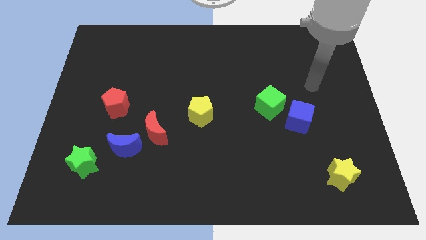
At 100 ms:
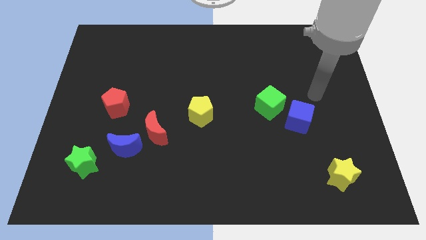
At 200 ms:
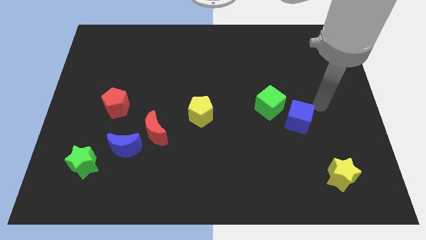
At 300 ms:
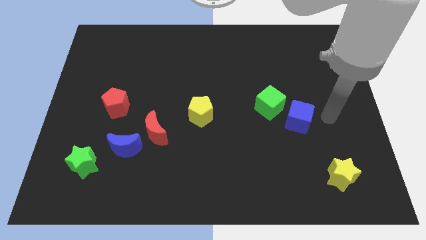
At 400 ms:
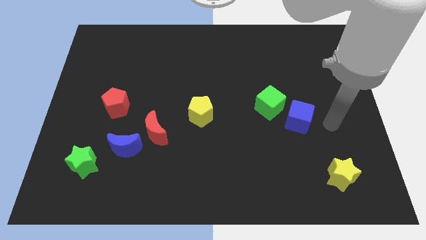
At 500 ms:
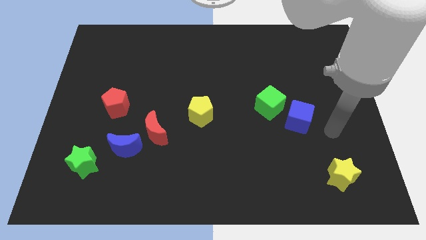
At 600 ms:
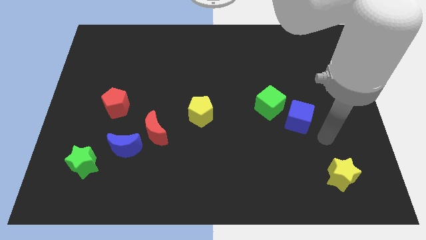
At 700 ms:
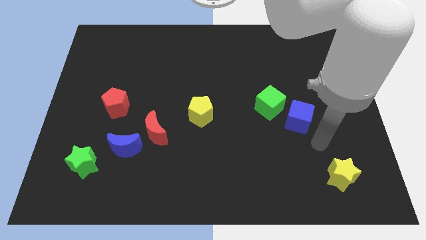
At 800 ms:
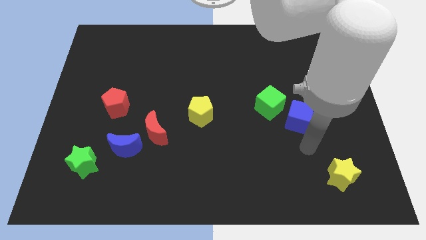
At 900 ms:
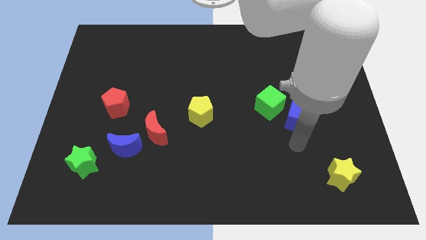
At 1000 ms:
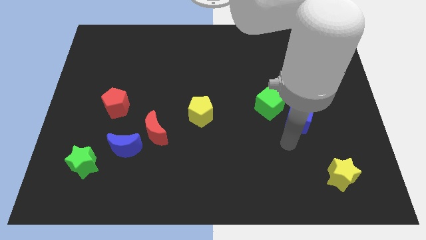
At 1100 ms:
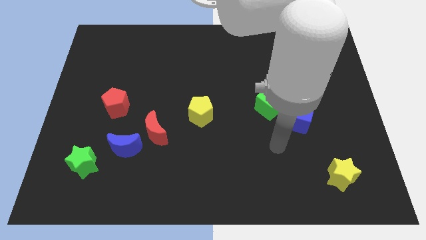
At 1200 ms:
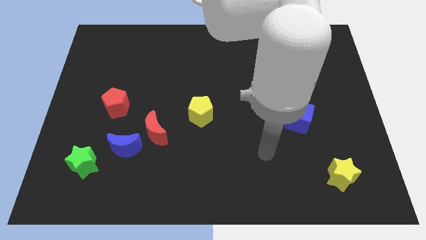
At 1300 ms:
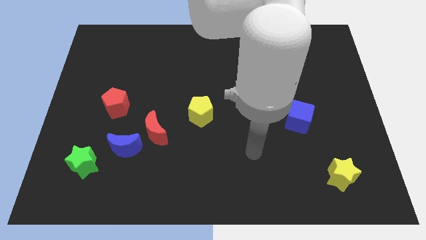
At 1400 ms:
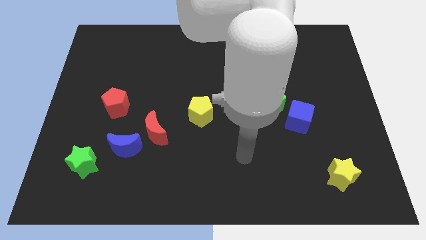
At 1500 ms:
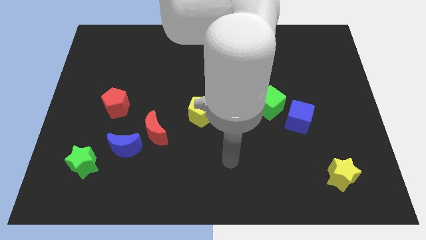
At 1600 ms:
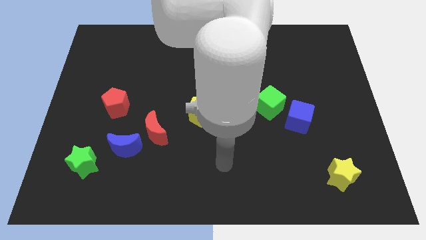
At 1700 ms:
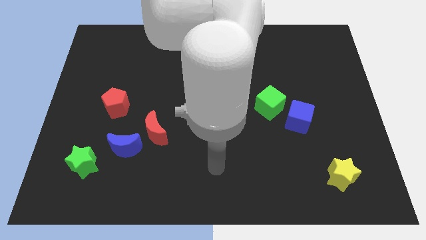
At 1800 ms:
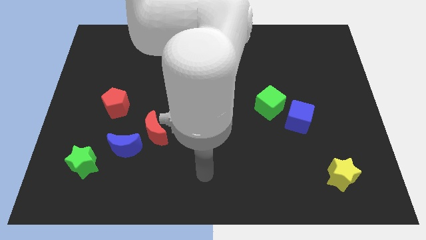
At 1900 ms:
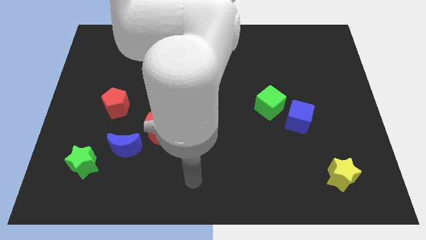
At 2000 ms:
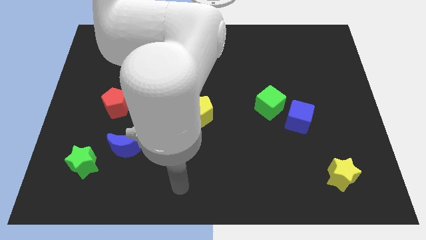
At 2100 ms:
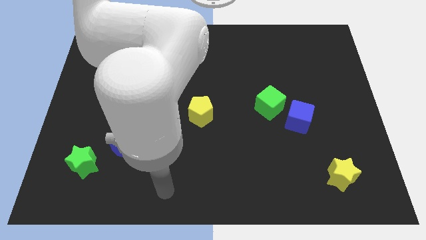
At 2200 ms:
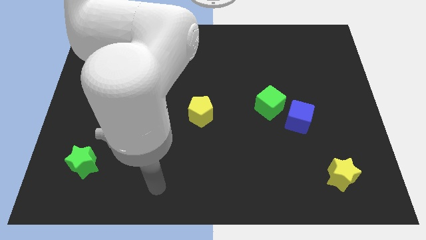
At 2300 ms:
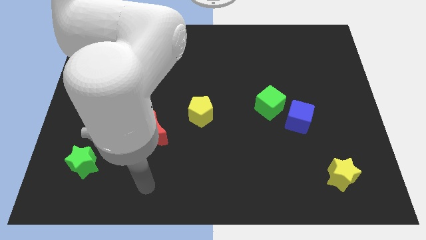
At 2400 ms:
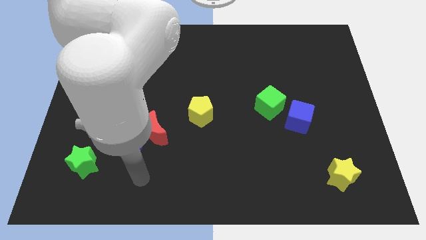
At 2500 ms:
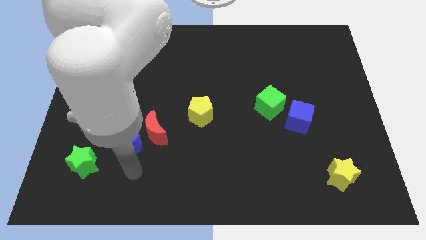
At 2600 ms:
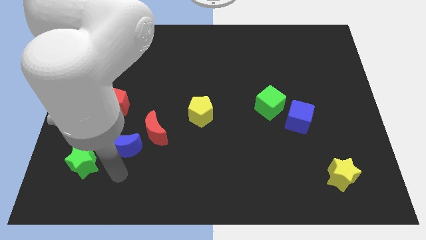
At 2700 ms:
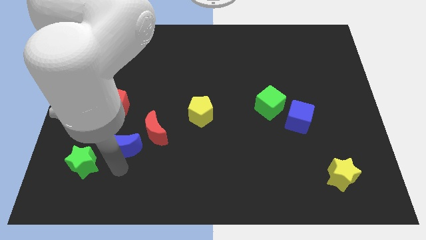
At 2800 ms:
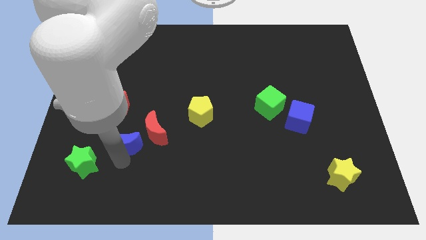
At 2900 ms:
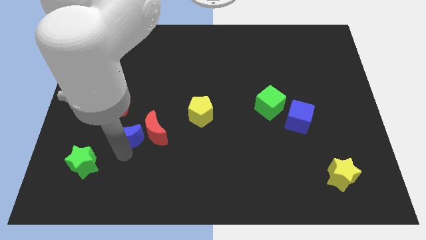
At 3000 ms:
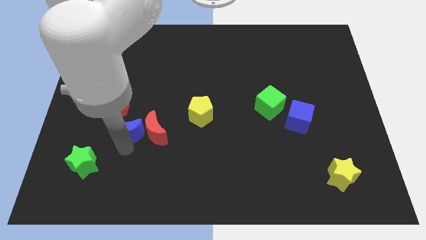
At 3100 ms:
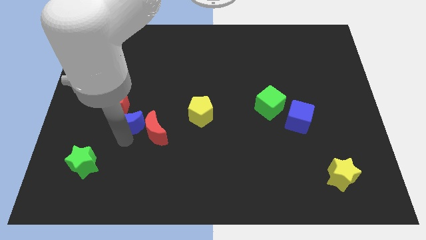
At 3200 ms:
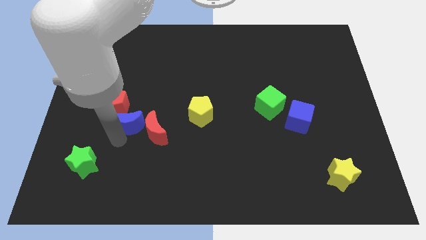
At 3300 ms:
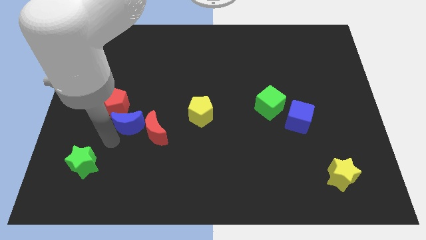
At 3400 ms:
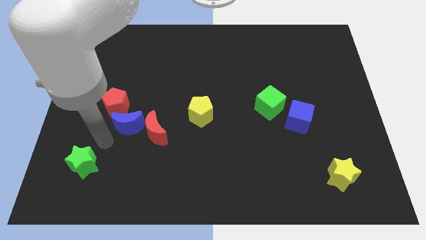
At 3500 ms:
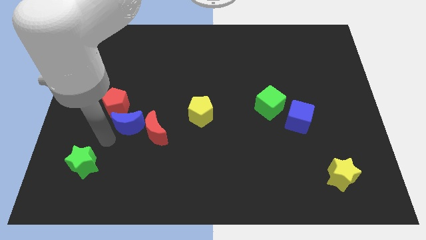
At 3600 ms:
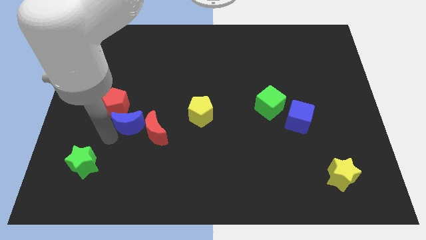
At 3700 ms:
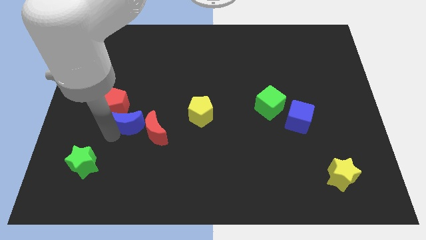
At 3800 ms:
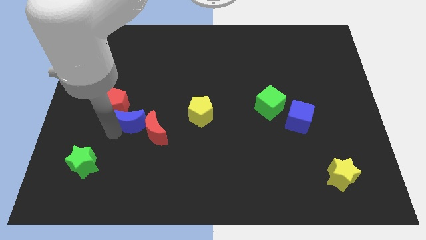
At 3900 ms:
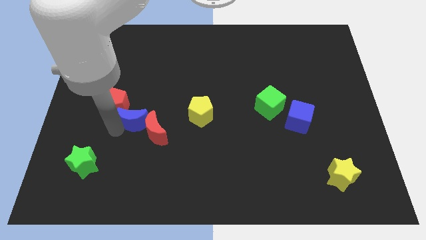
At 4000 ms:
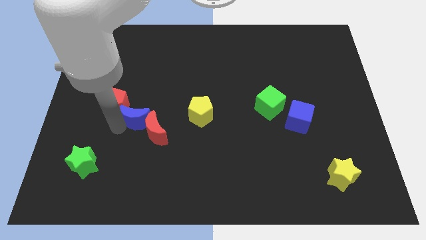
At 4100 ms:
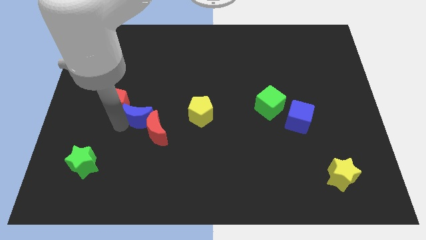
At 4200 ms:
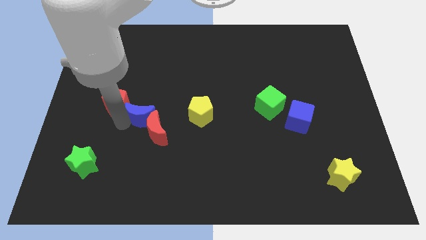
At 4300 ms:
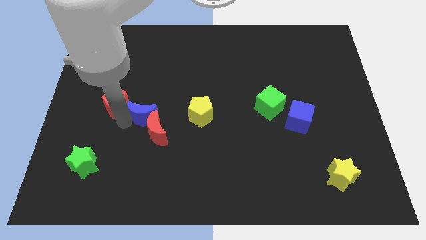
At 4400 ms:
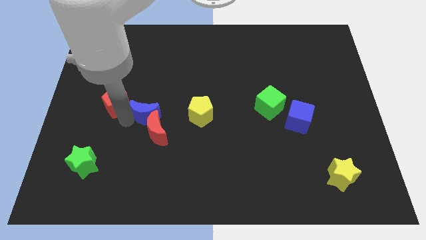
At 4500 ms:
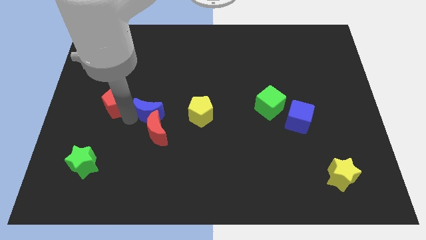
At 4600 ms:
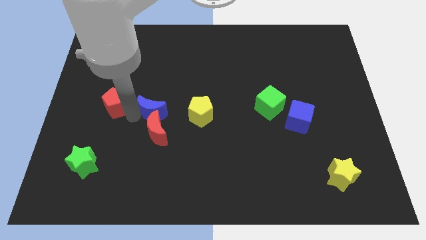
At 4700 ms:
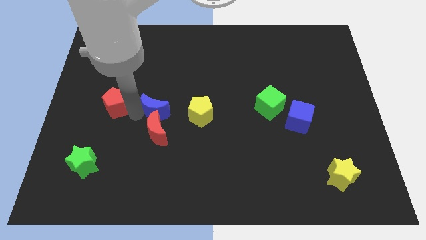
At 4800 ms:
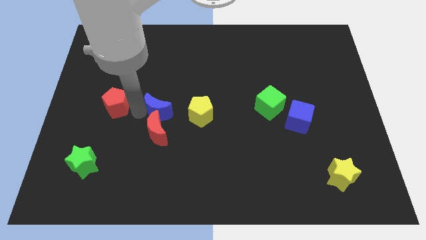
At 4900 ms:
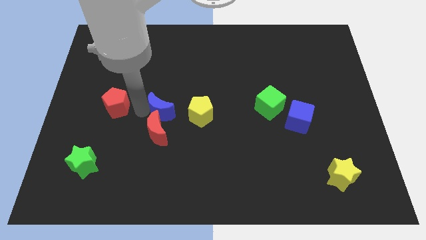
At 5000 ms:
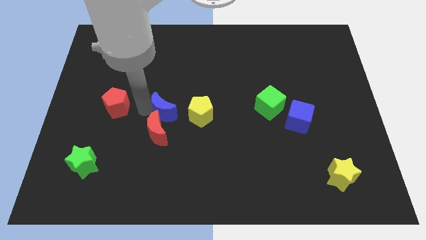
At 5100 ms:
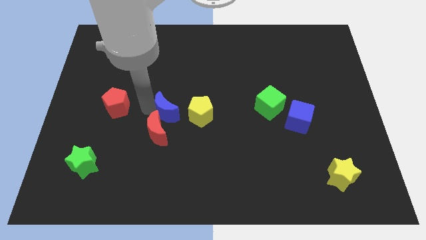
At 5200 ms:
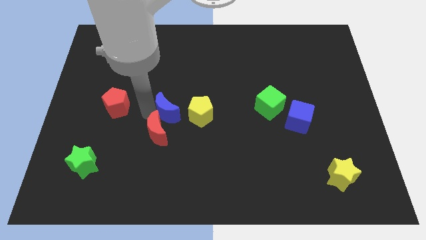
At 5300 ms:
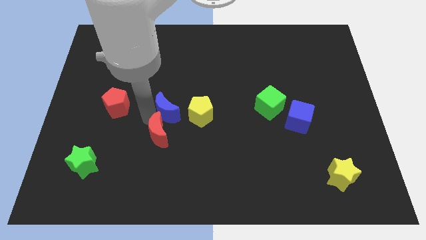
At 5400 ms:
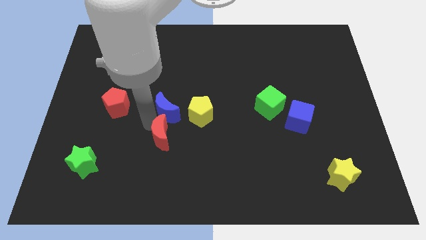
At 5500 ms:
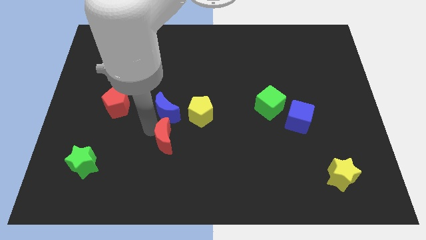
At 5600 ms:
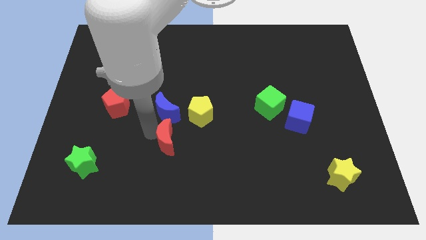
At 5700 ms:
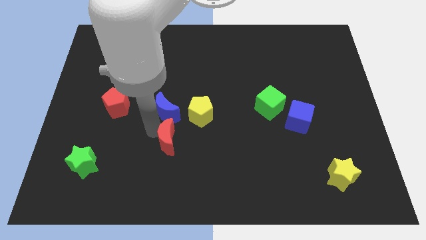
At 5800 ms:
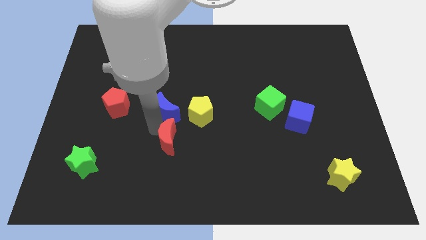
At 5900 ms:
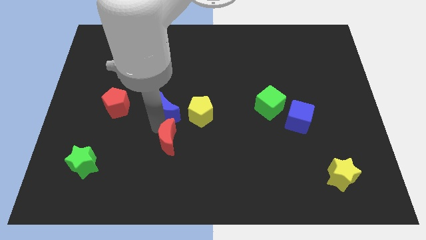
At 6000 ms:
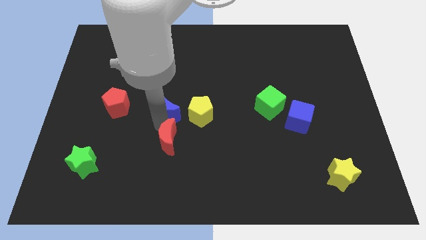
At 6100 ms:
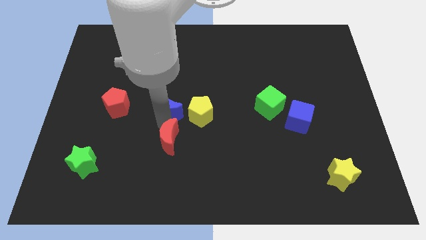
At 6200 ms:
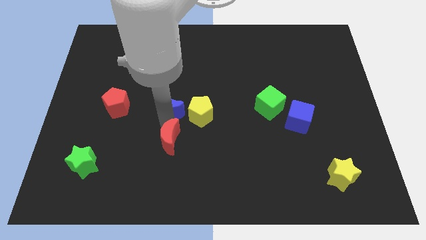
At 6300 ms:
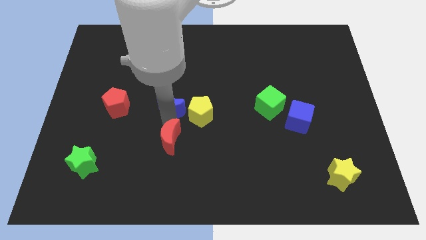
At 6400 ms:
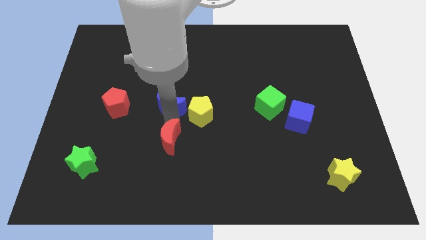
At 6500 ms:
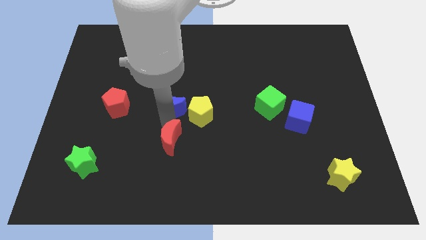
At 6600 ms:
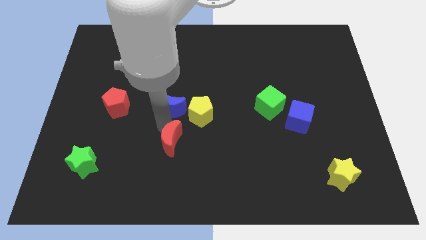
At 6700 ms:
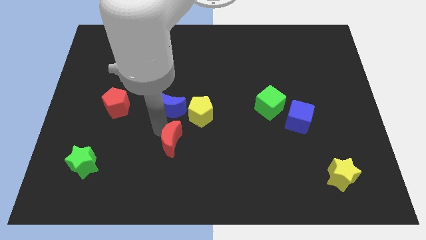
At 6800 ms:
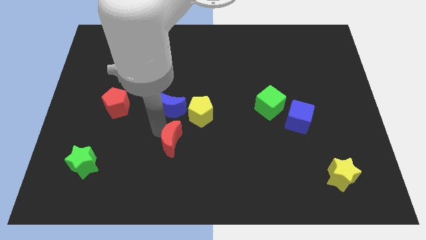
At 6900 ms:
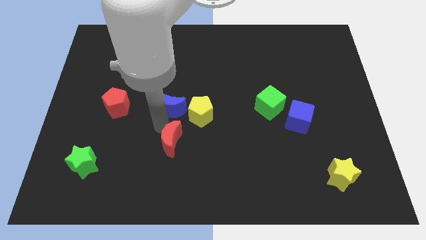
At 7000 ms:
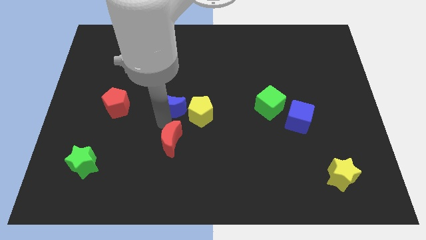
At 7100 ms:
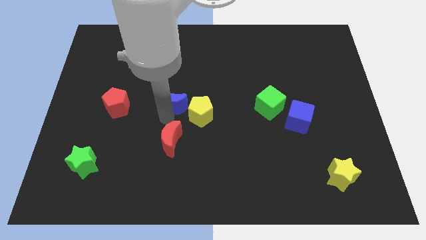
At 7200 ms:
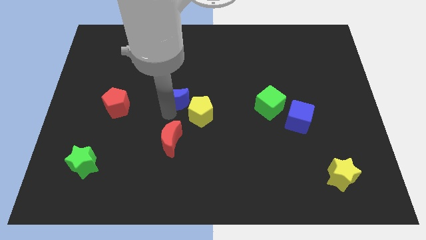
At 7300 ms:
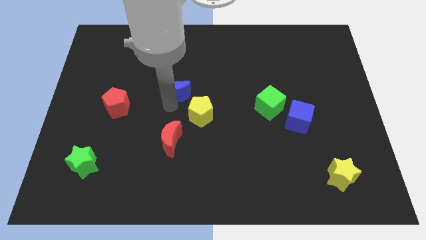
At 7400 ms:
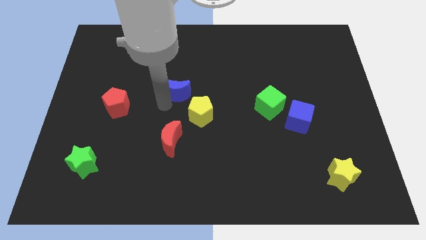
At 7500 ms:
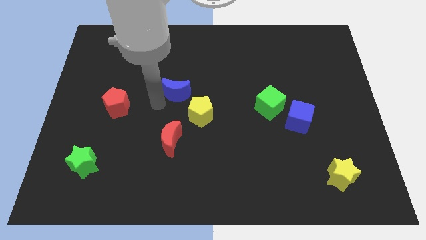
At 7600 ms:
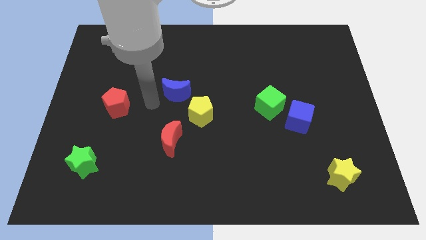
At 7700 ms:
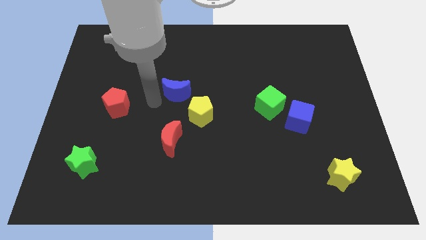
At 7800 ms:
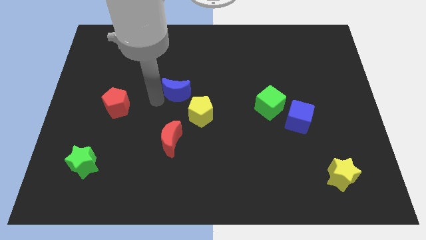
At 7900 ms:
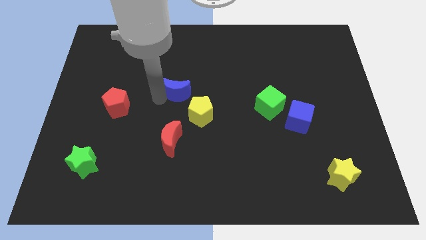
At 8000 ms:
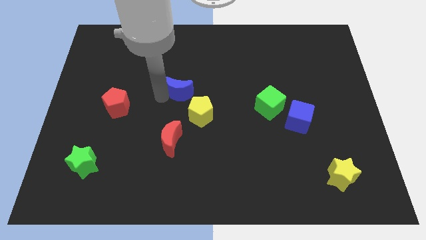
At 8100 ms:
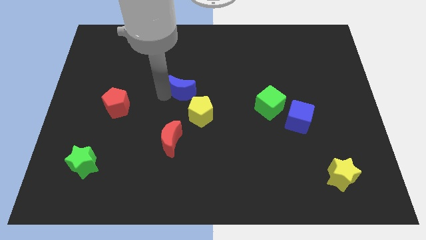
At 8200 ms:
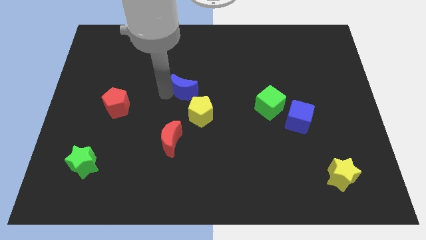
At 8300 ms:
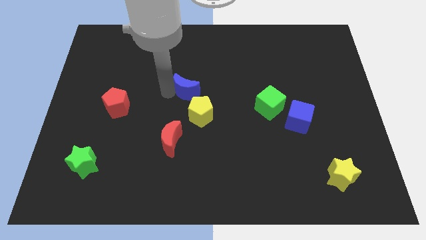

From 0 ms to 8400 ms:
move the blue moon up and right
